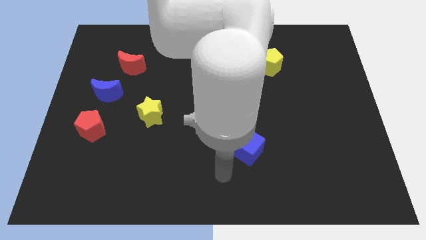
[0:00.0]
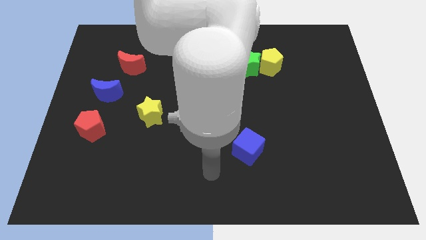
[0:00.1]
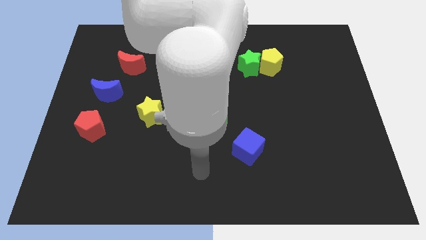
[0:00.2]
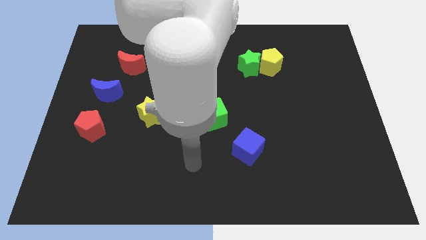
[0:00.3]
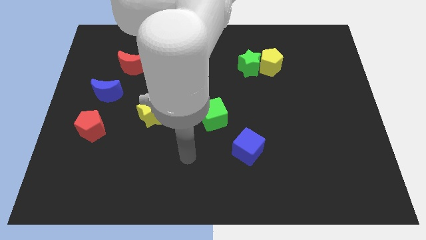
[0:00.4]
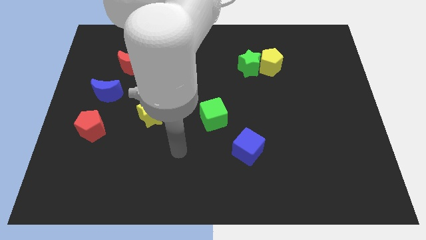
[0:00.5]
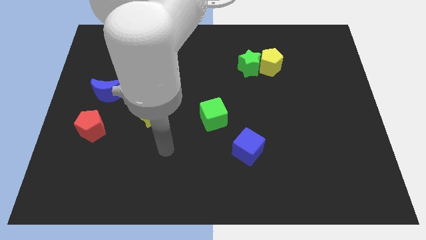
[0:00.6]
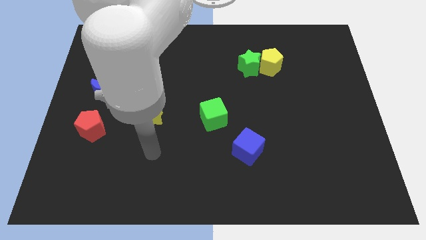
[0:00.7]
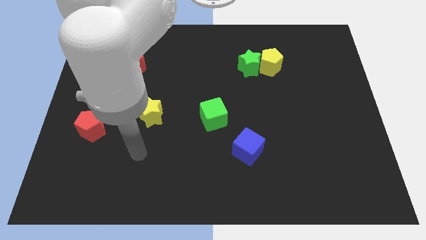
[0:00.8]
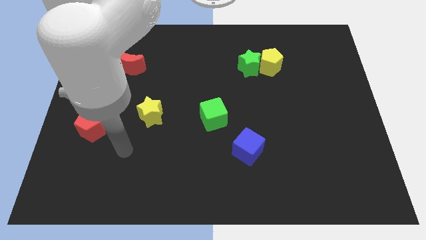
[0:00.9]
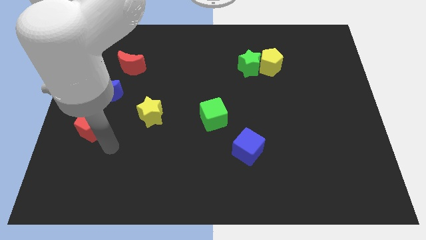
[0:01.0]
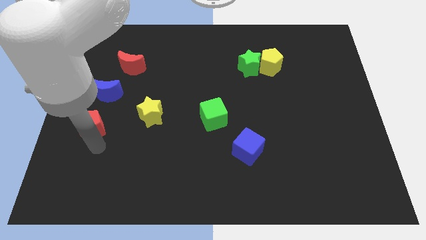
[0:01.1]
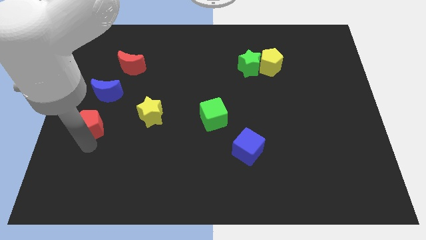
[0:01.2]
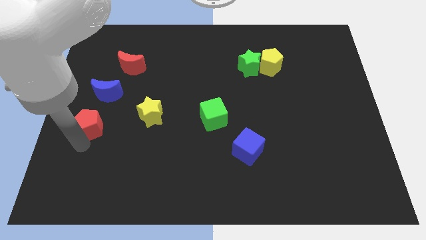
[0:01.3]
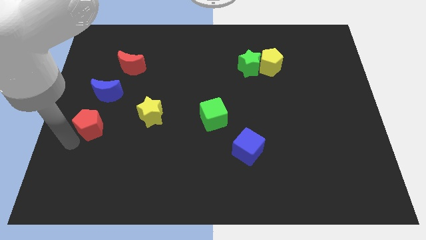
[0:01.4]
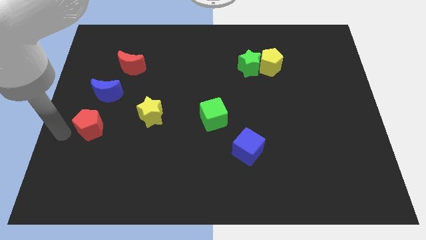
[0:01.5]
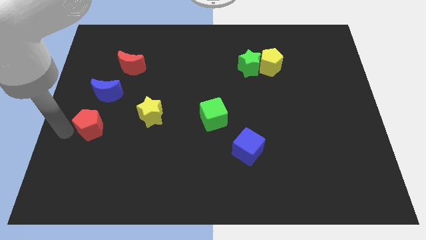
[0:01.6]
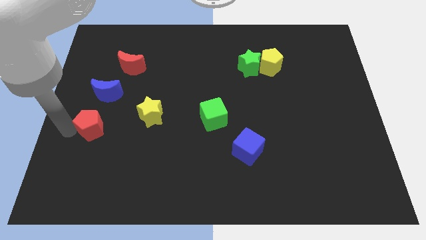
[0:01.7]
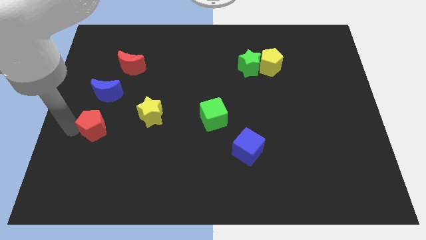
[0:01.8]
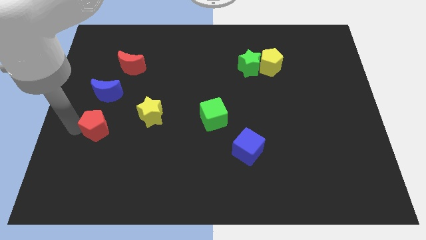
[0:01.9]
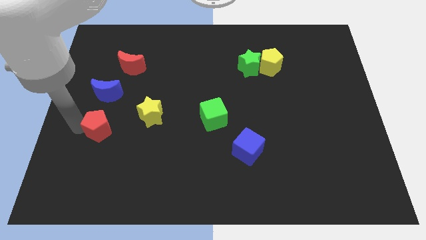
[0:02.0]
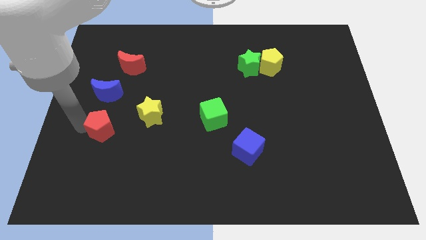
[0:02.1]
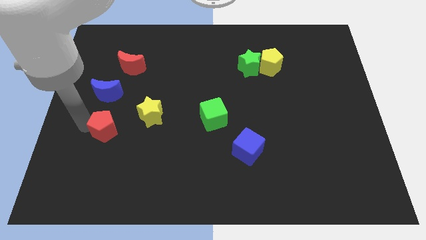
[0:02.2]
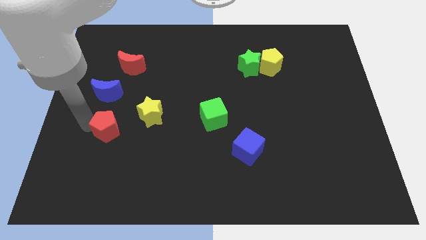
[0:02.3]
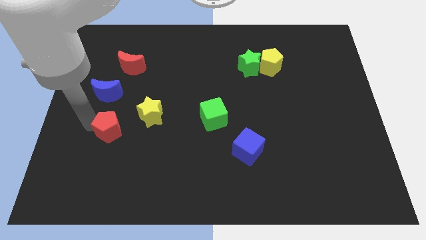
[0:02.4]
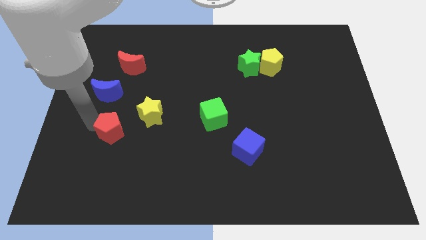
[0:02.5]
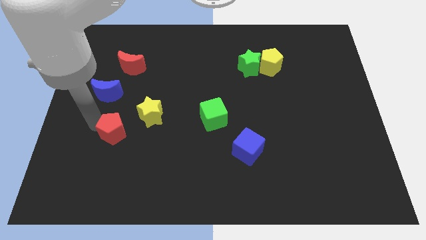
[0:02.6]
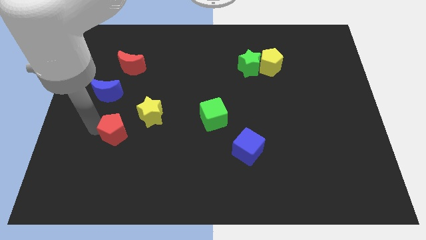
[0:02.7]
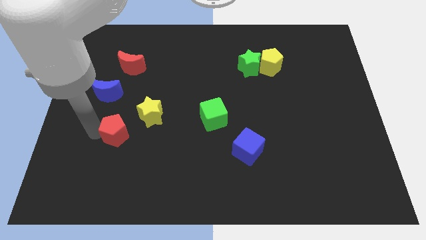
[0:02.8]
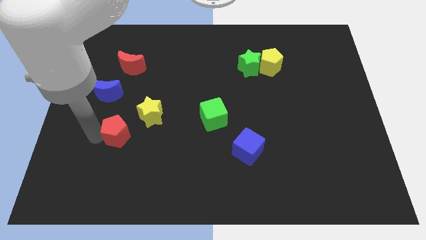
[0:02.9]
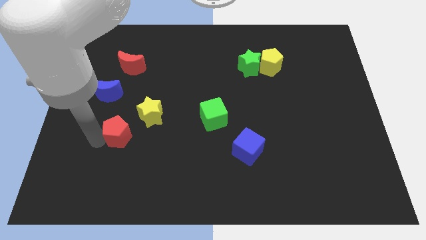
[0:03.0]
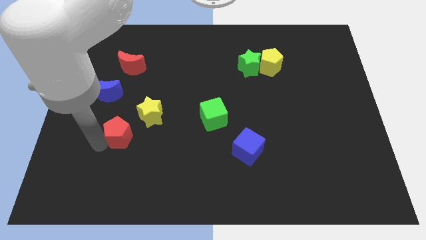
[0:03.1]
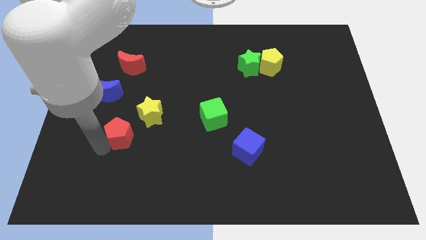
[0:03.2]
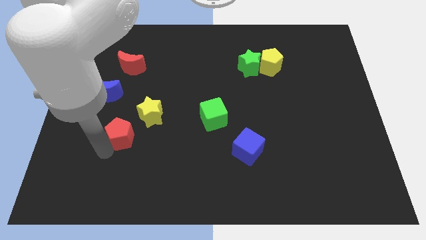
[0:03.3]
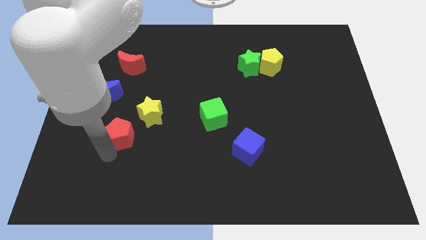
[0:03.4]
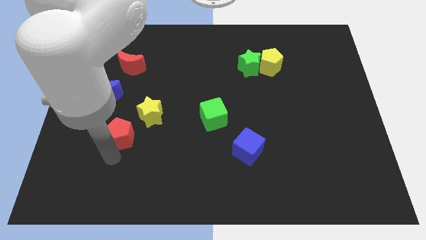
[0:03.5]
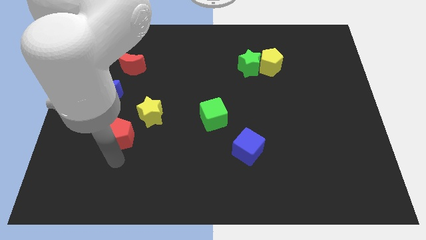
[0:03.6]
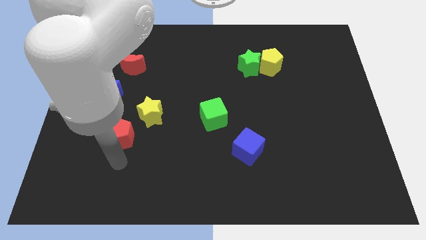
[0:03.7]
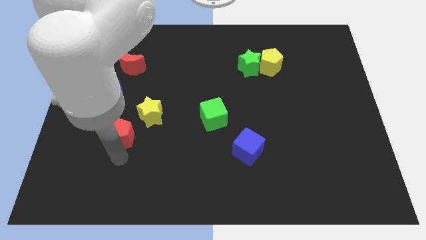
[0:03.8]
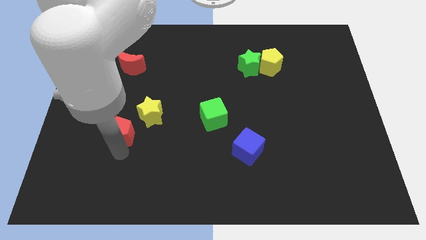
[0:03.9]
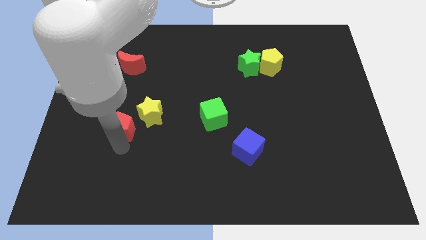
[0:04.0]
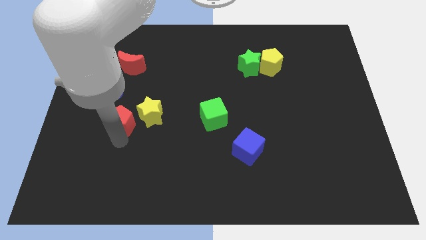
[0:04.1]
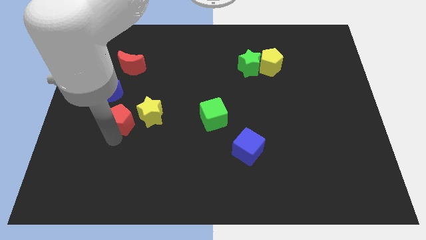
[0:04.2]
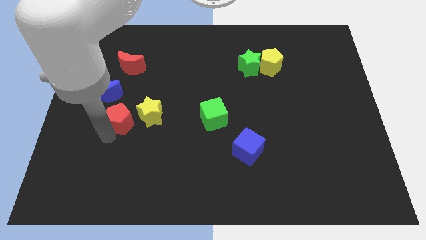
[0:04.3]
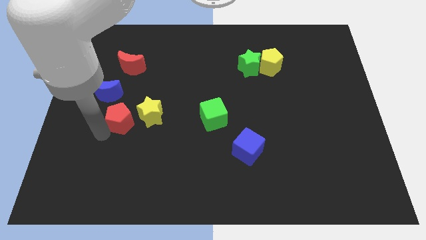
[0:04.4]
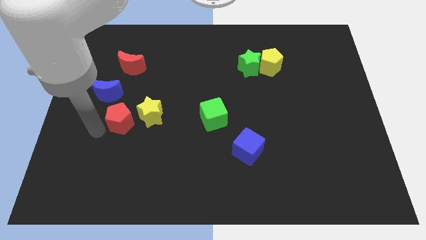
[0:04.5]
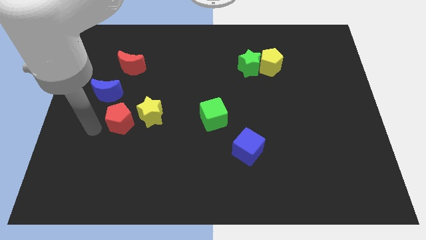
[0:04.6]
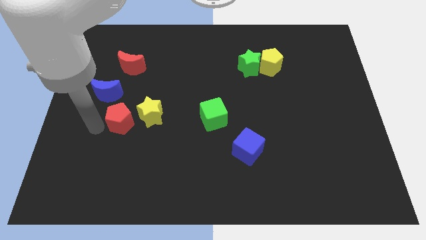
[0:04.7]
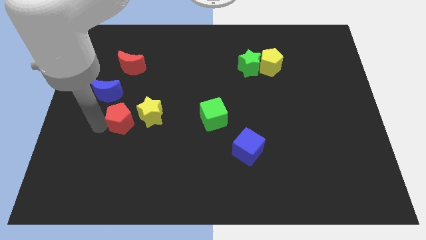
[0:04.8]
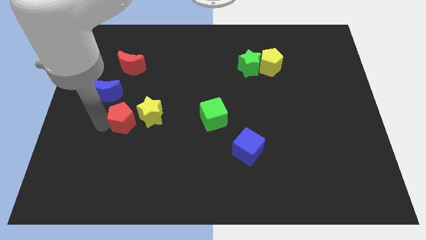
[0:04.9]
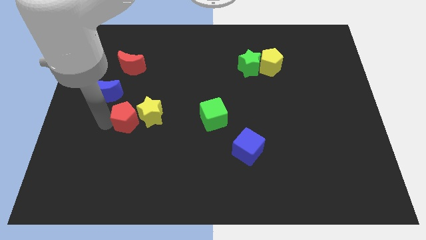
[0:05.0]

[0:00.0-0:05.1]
move the red pentagon close to the yellow star

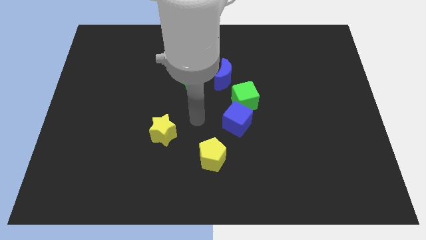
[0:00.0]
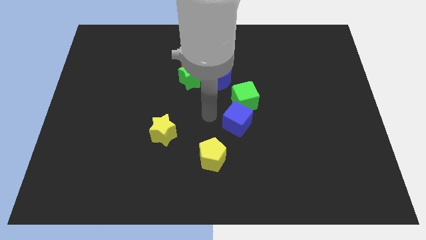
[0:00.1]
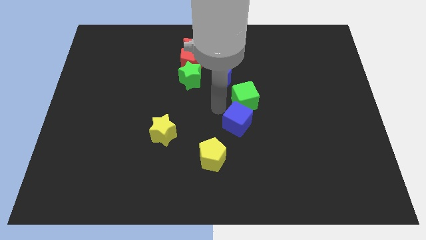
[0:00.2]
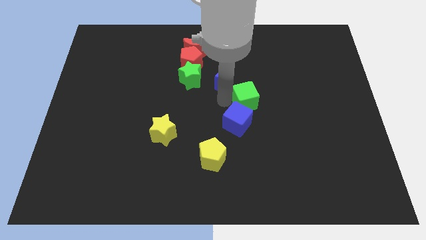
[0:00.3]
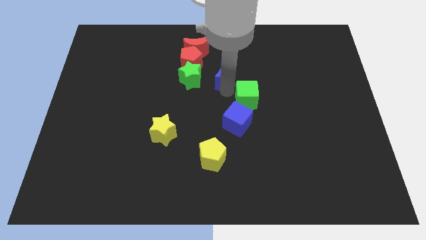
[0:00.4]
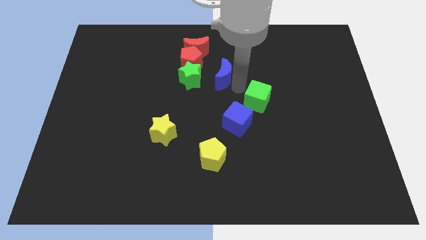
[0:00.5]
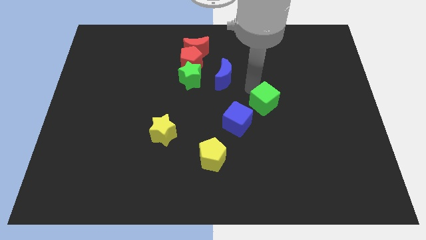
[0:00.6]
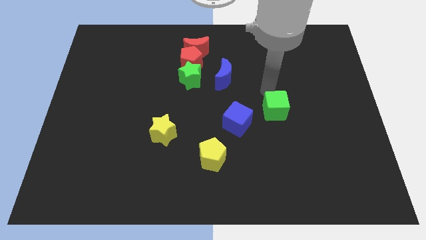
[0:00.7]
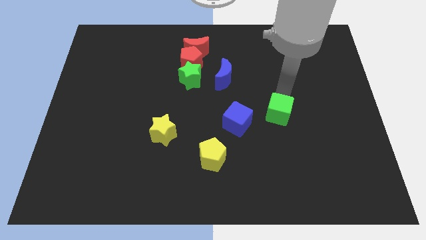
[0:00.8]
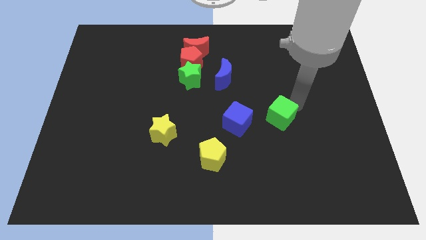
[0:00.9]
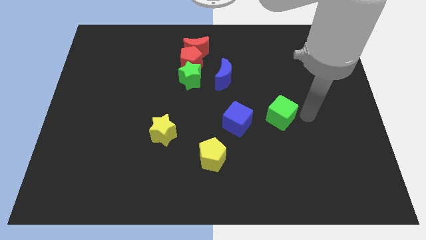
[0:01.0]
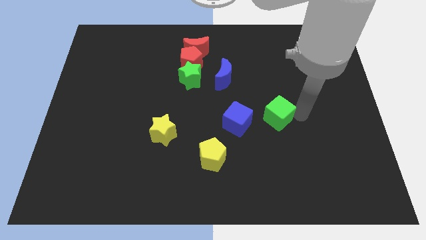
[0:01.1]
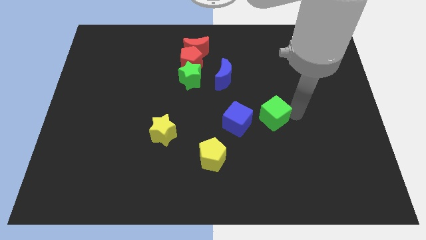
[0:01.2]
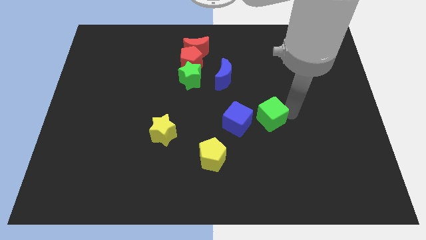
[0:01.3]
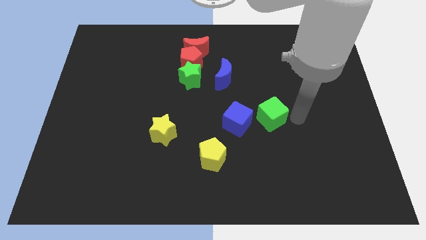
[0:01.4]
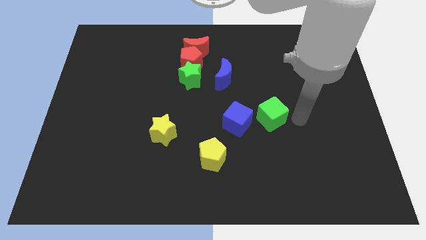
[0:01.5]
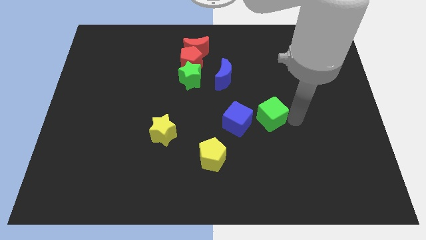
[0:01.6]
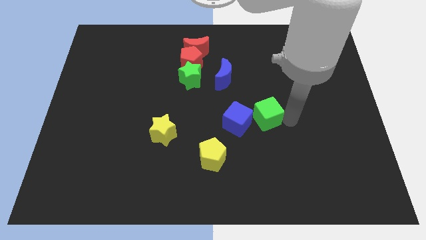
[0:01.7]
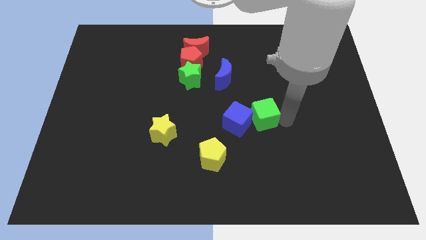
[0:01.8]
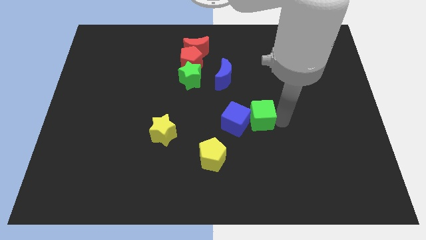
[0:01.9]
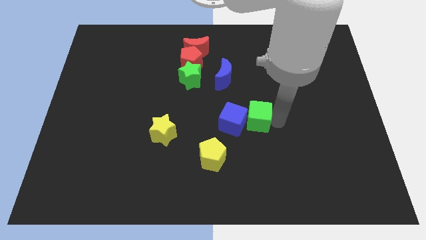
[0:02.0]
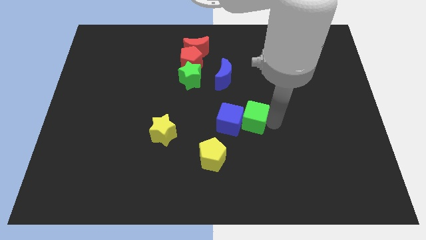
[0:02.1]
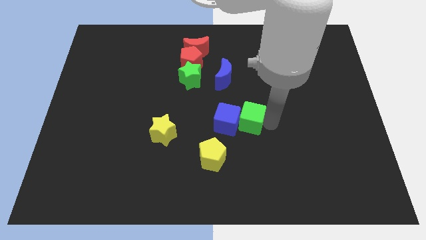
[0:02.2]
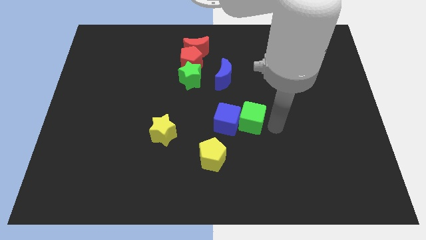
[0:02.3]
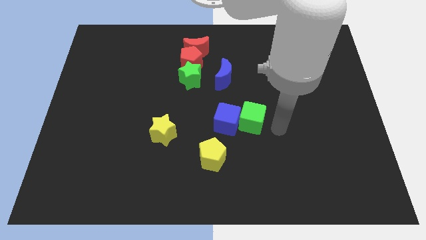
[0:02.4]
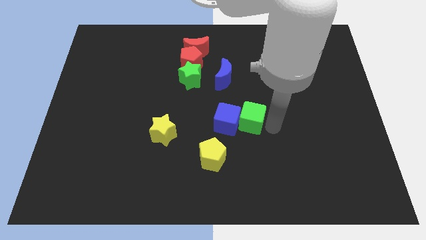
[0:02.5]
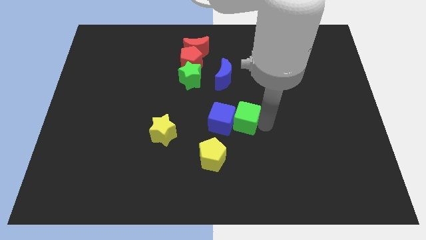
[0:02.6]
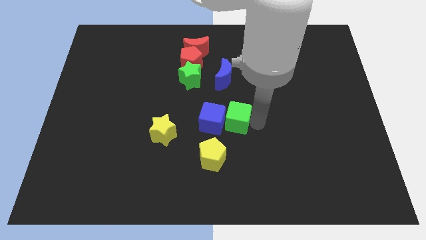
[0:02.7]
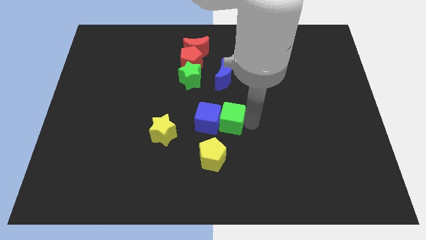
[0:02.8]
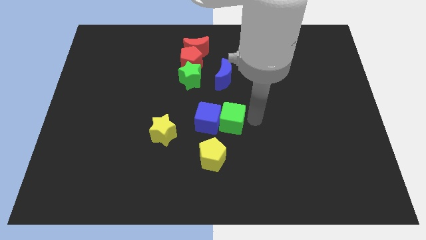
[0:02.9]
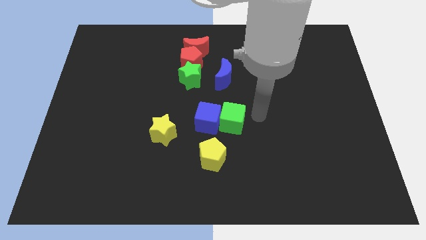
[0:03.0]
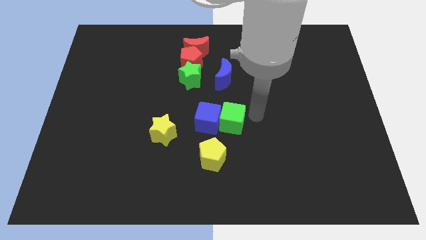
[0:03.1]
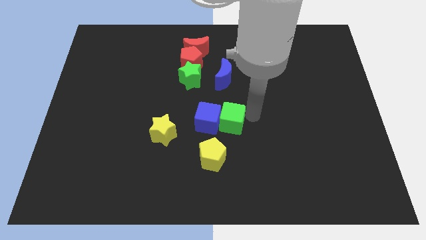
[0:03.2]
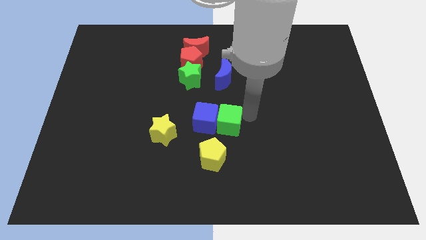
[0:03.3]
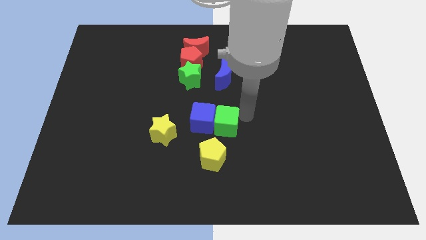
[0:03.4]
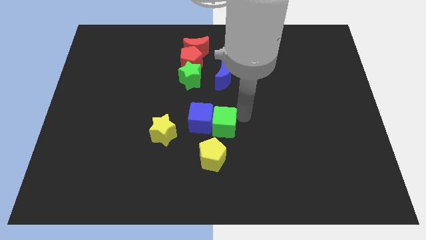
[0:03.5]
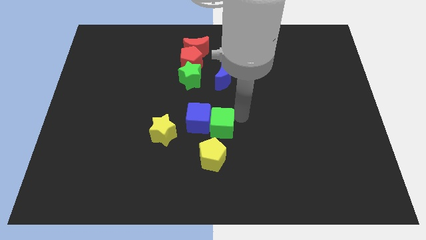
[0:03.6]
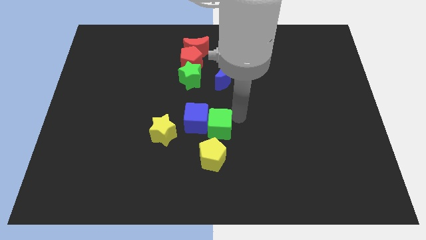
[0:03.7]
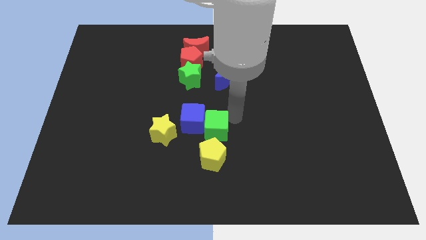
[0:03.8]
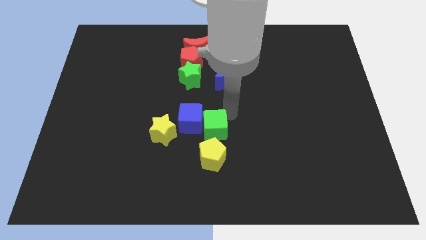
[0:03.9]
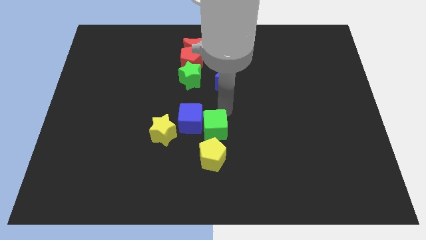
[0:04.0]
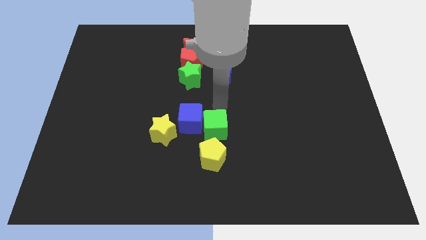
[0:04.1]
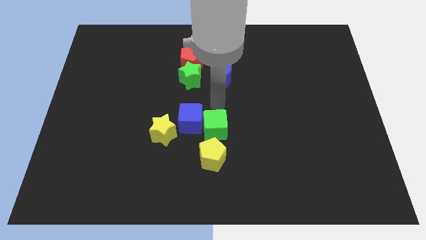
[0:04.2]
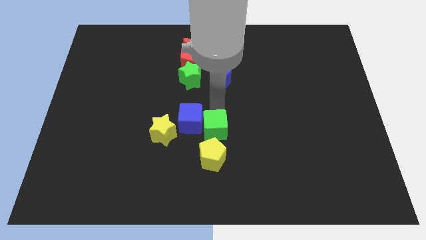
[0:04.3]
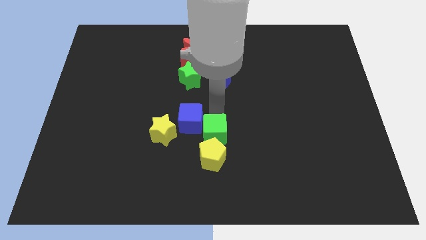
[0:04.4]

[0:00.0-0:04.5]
push the green cube towards the yellow pentagon
